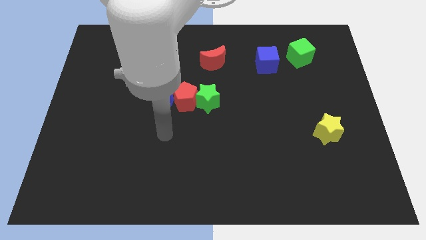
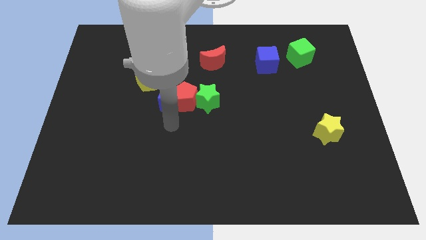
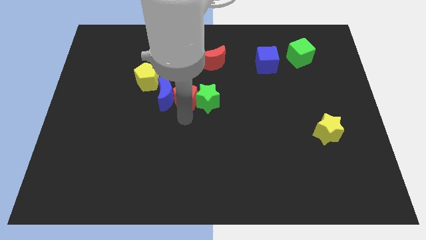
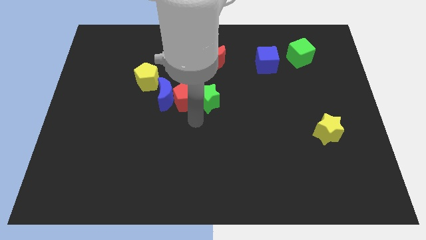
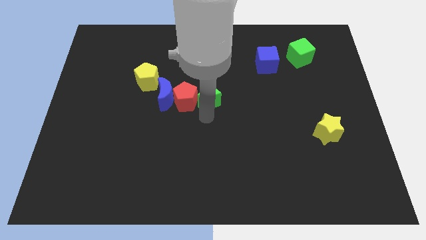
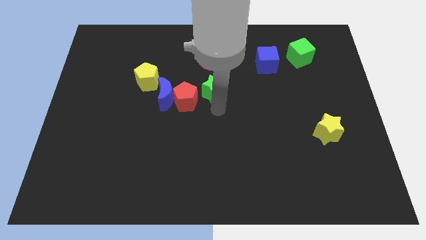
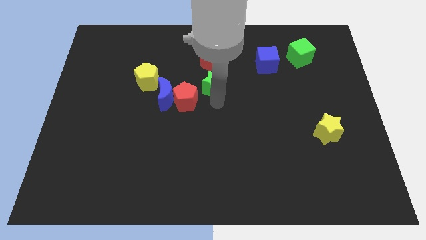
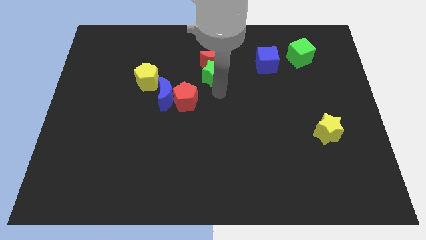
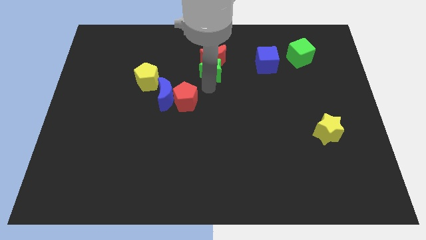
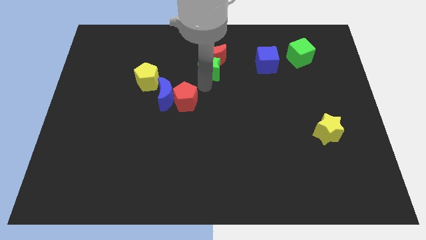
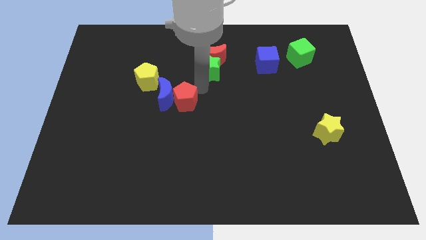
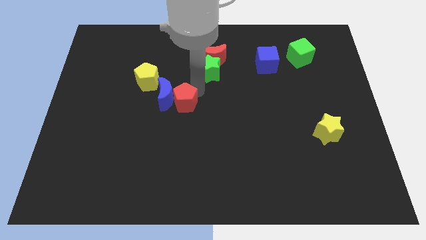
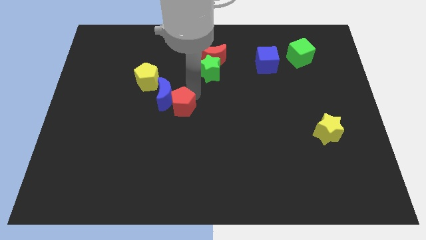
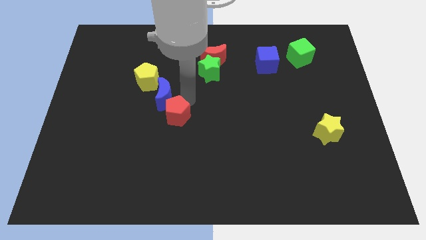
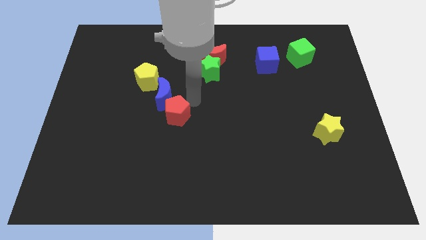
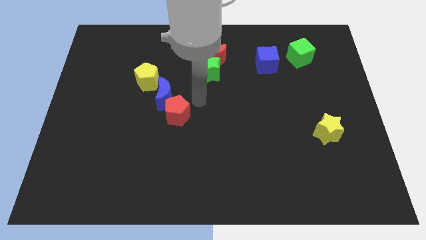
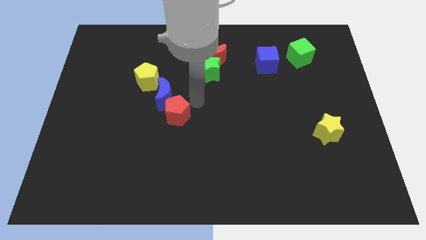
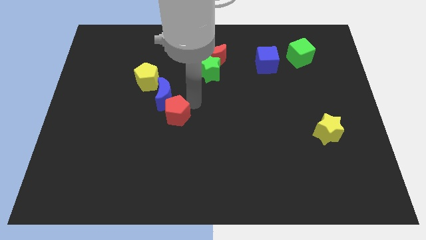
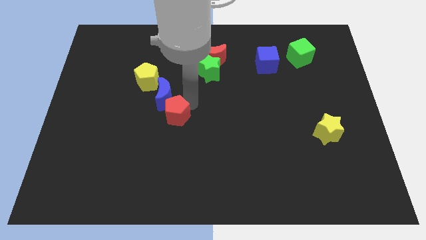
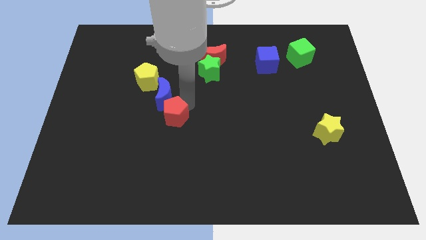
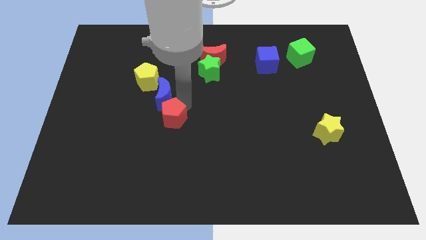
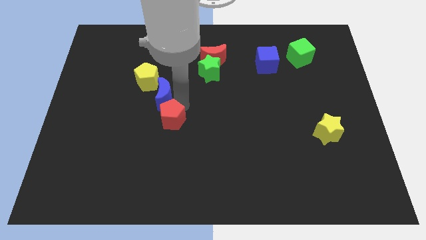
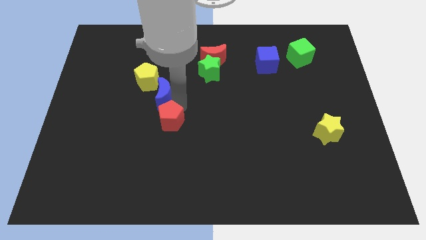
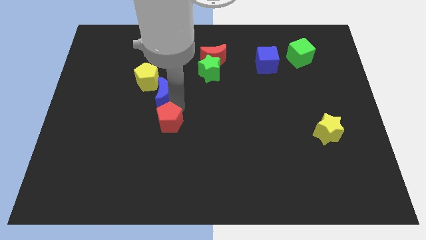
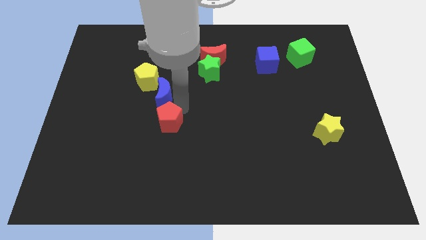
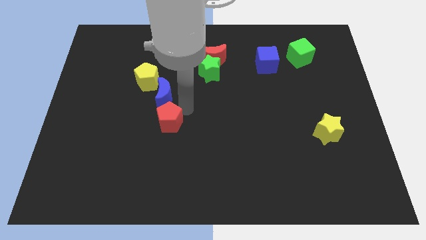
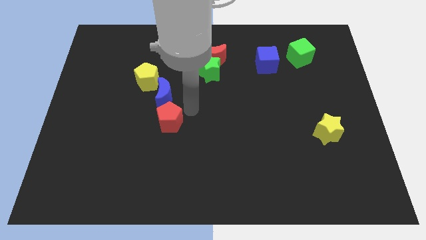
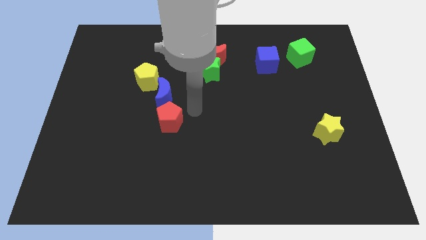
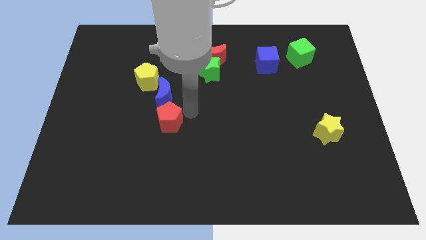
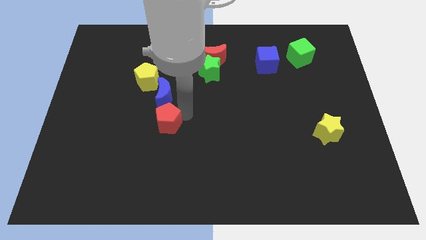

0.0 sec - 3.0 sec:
push the red pentagon a little bit downwards and to the left

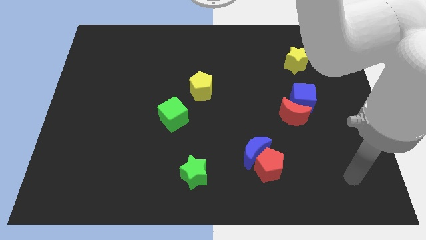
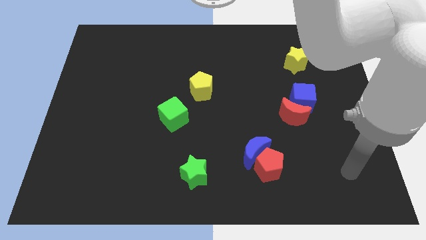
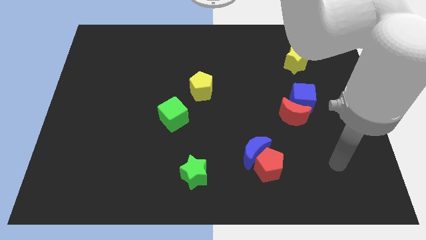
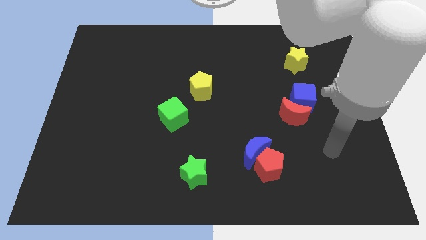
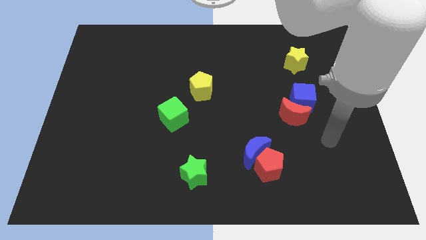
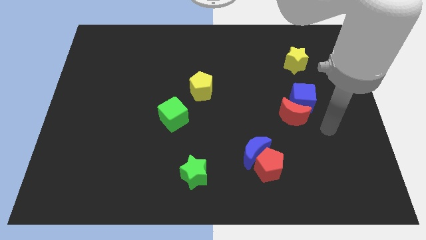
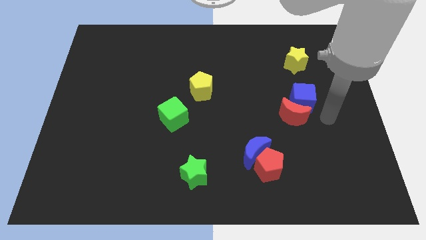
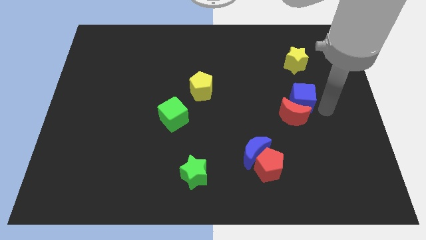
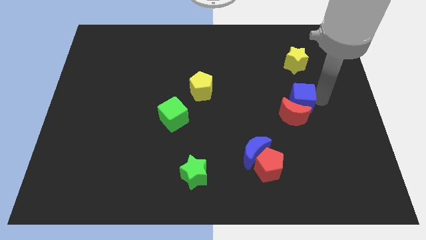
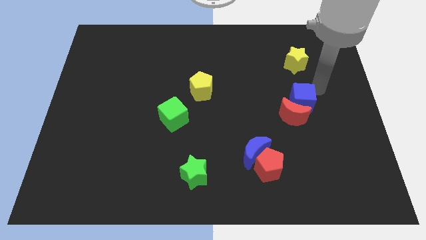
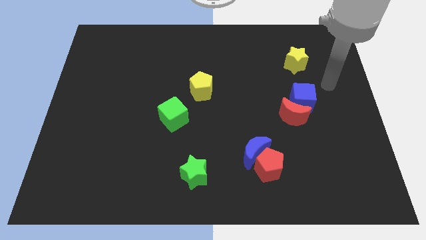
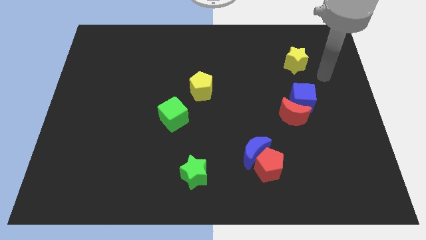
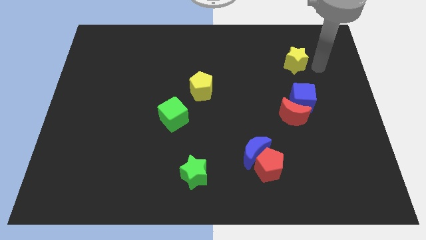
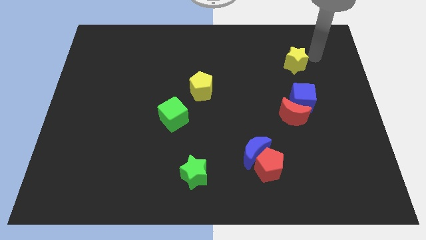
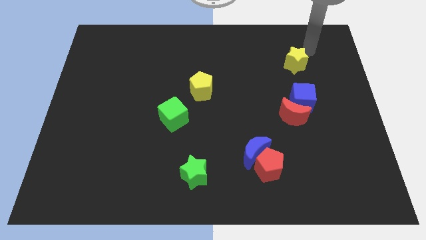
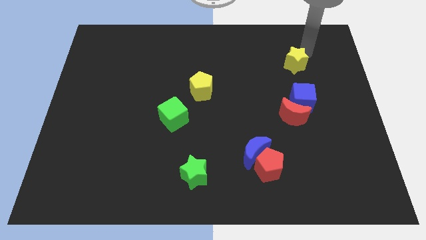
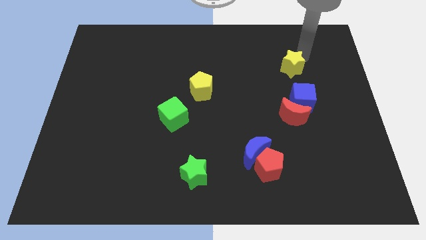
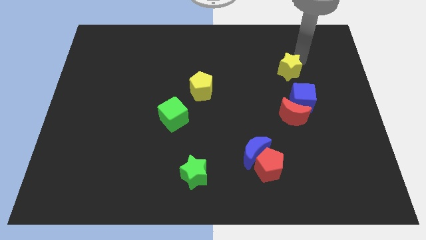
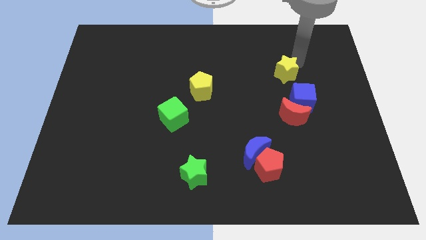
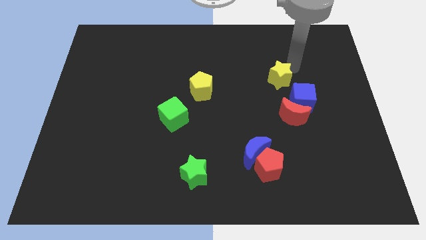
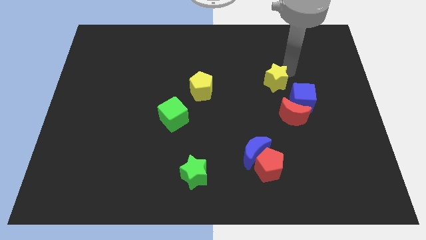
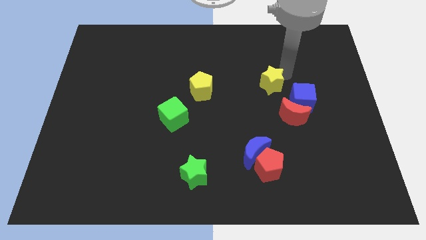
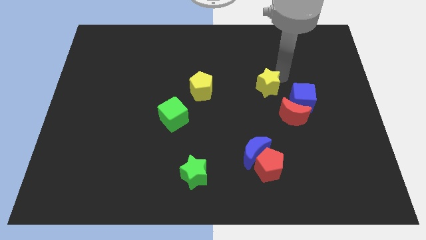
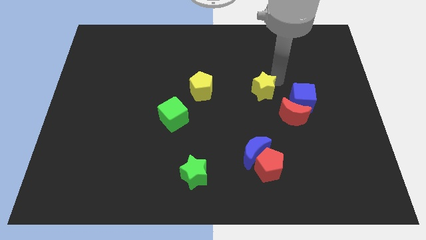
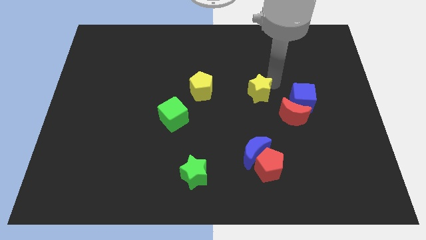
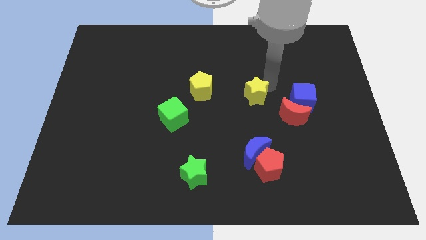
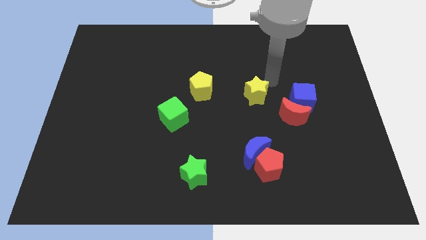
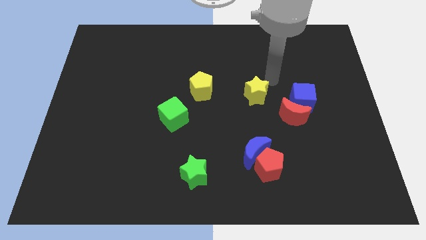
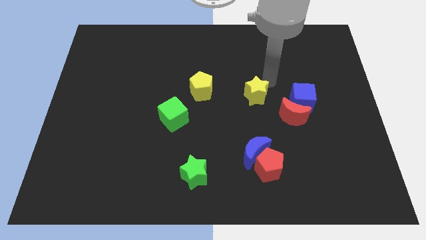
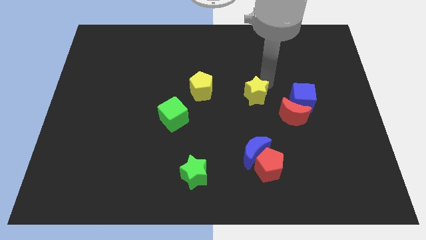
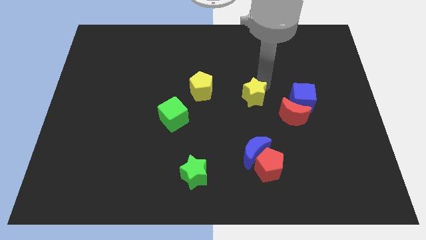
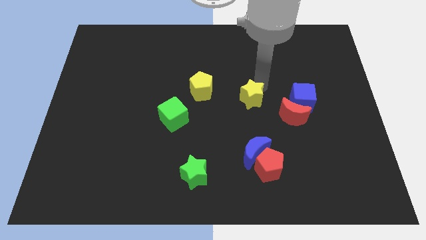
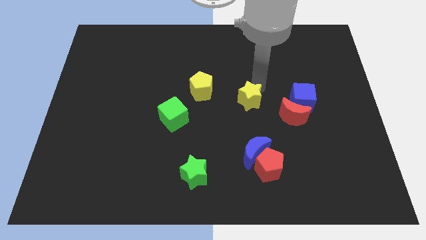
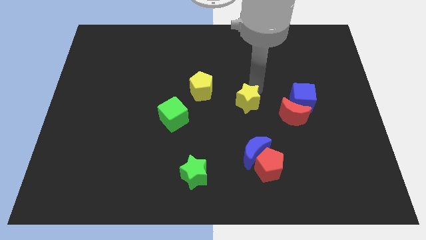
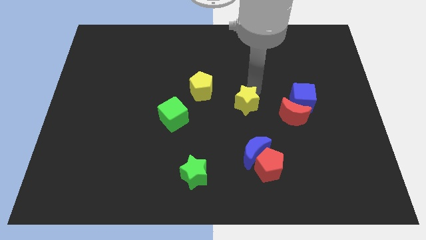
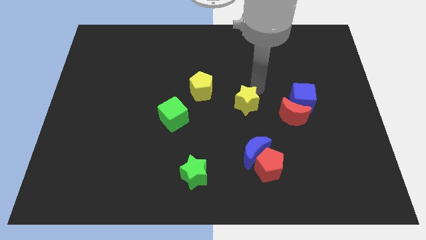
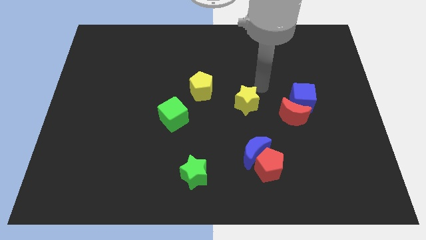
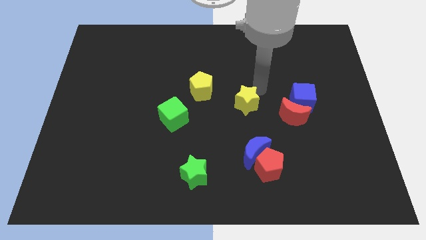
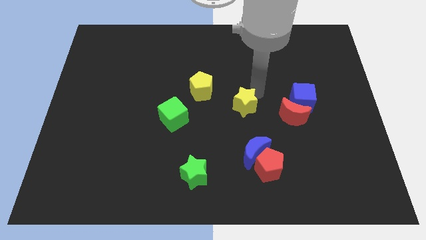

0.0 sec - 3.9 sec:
slide the yellow star diagonally down and to the left

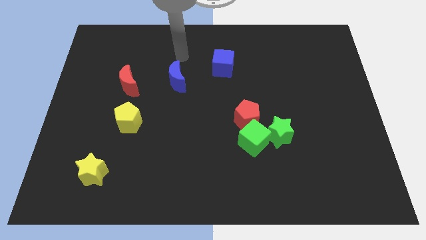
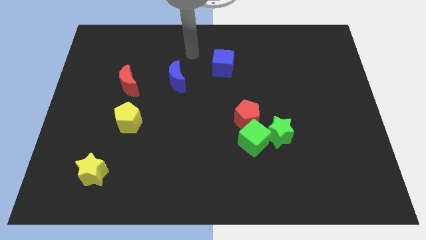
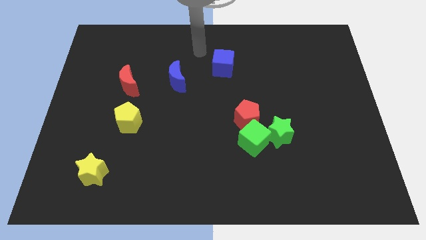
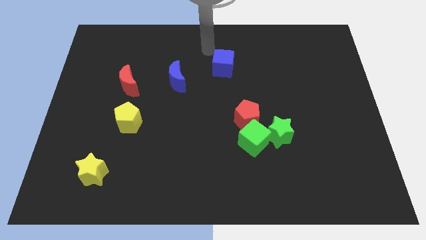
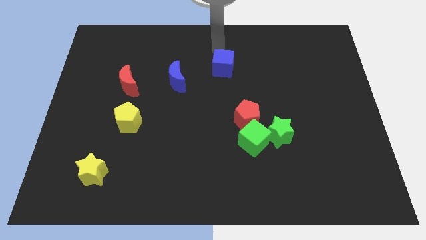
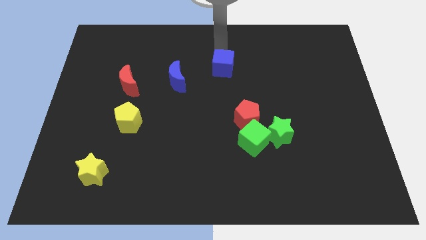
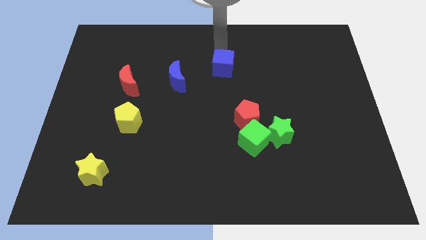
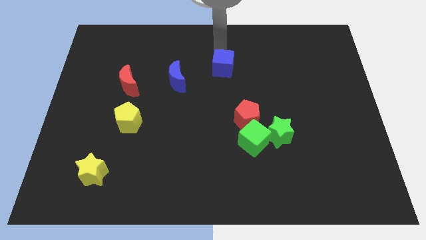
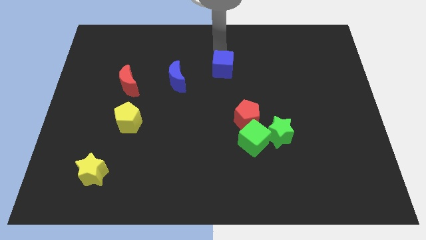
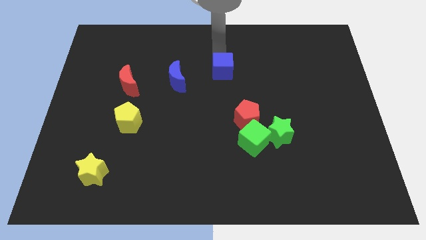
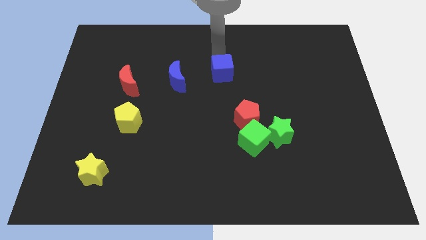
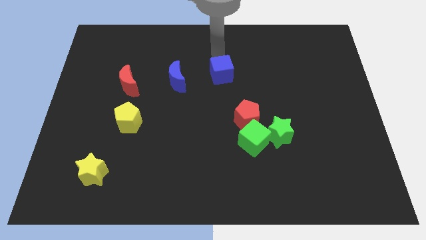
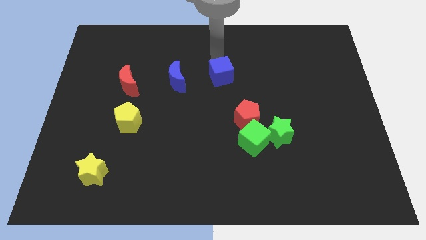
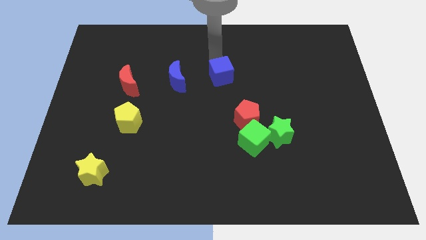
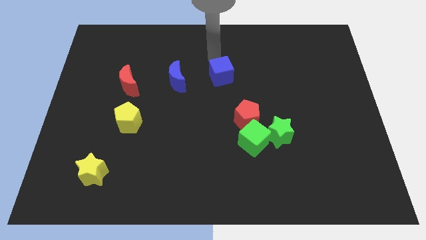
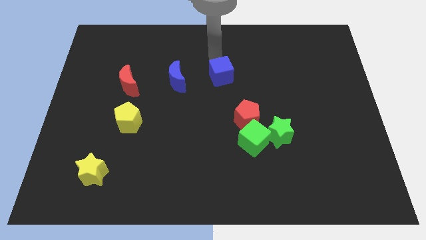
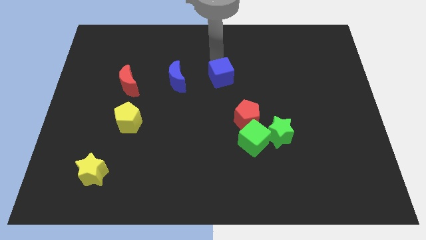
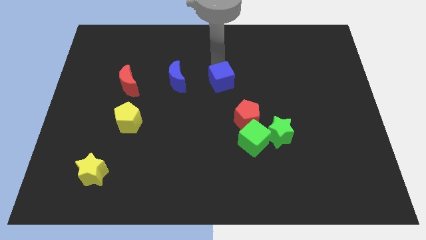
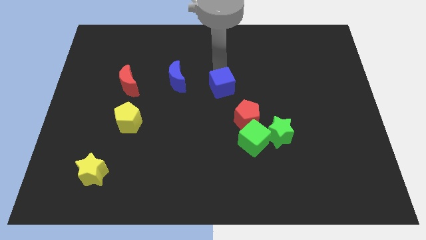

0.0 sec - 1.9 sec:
move the blue cube somewhat downwards
